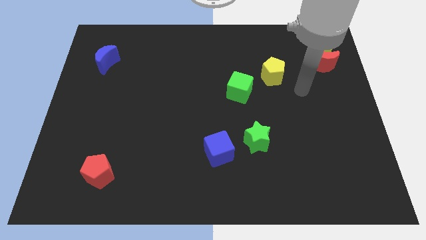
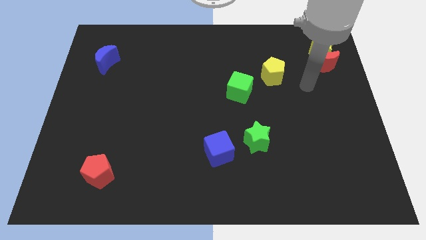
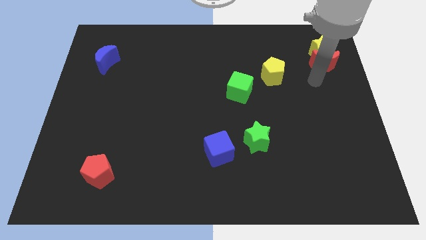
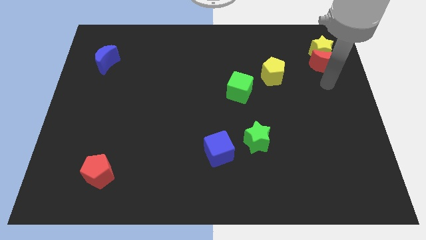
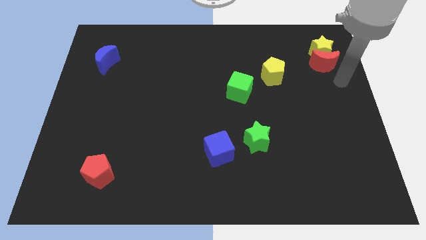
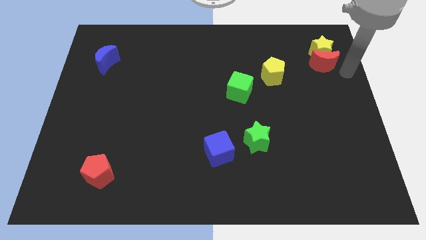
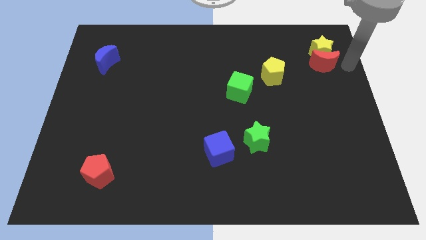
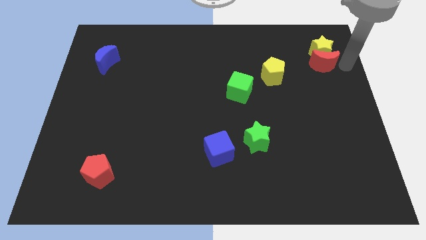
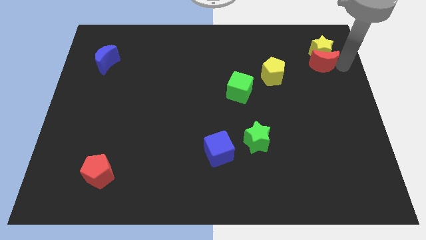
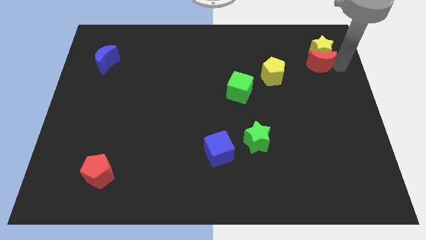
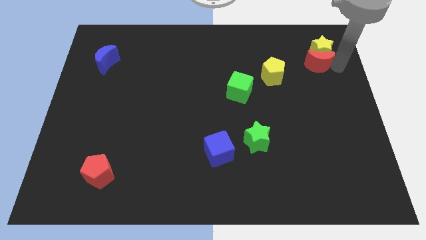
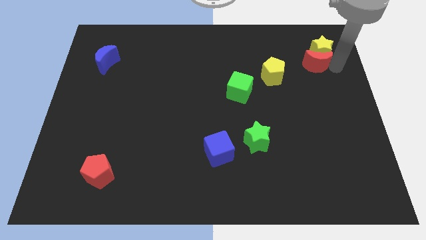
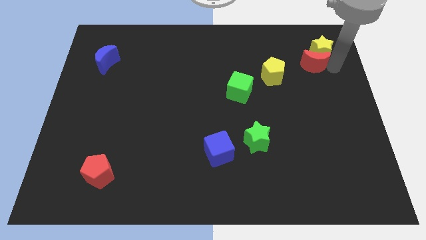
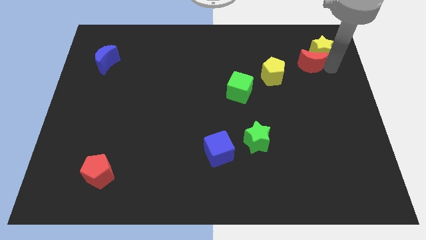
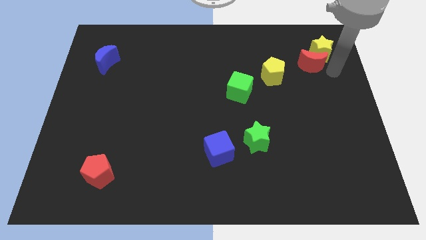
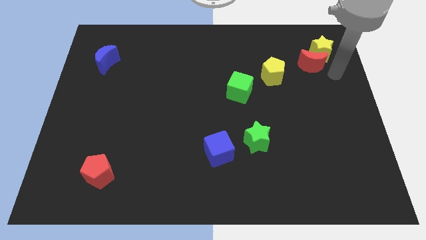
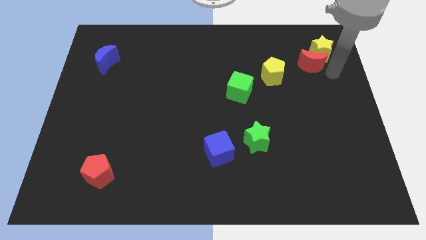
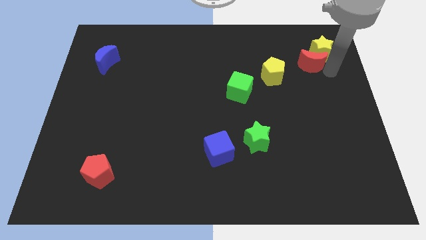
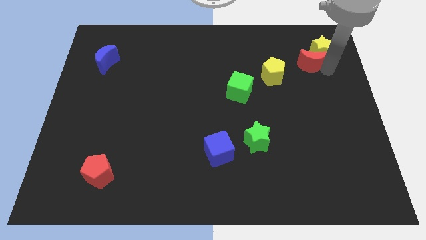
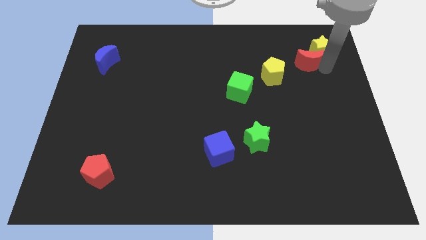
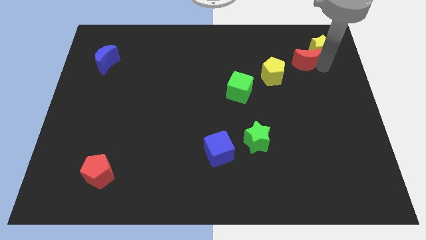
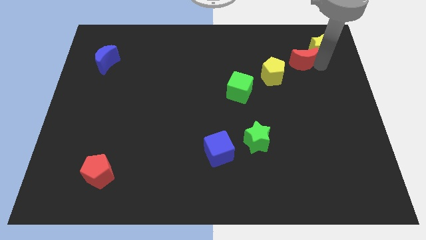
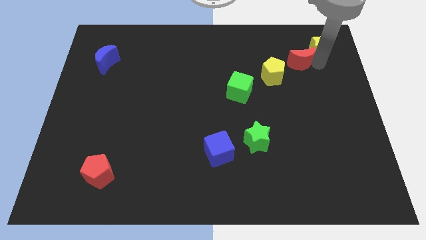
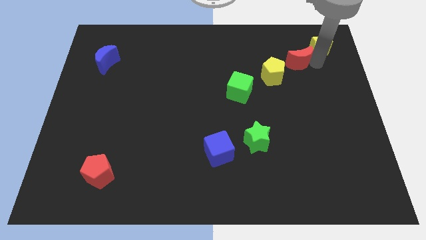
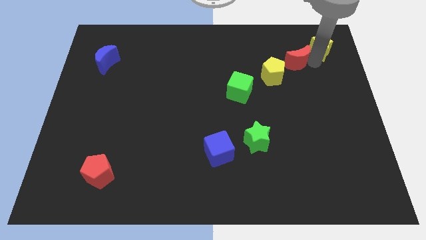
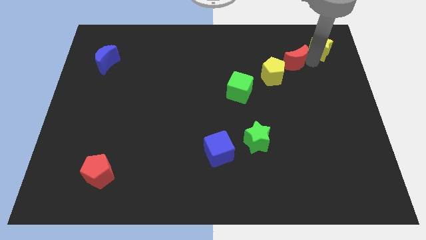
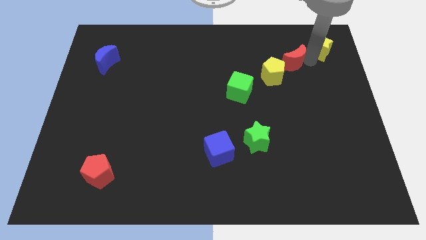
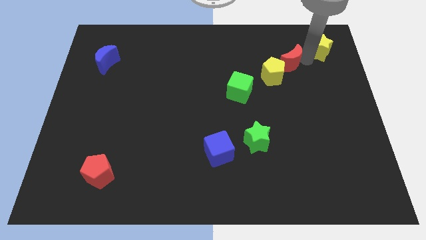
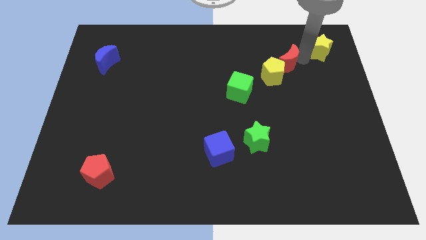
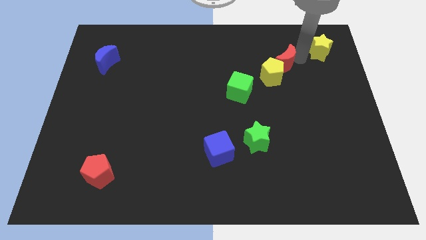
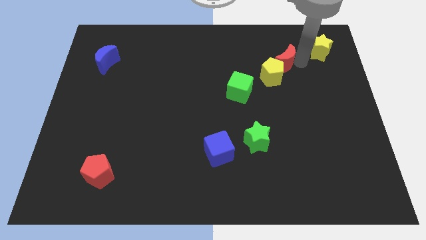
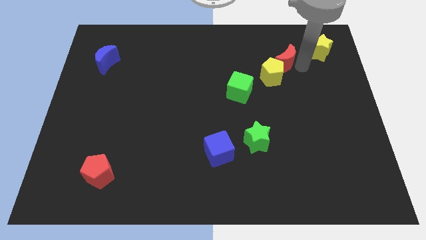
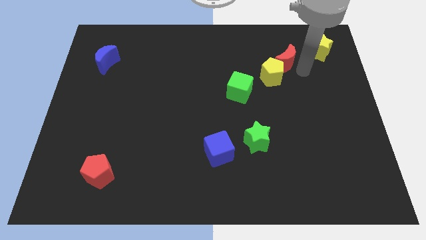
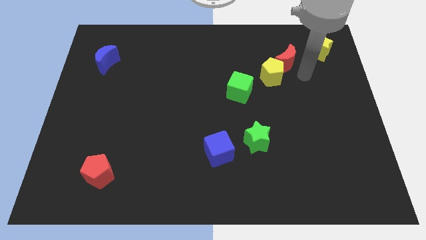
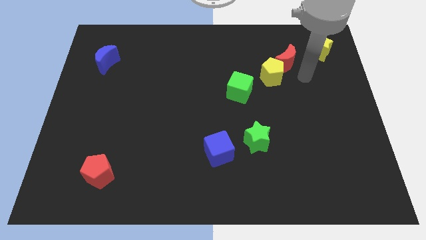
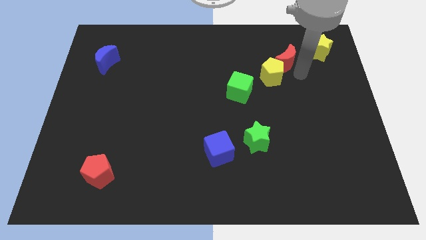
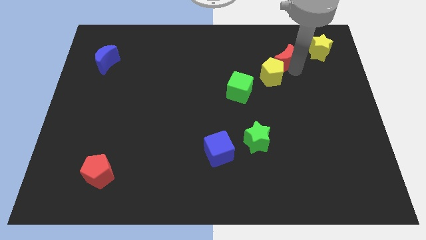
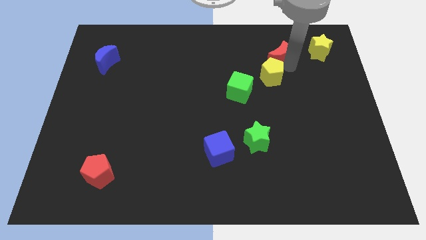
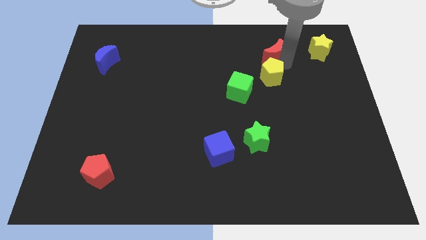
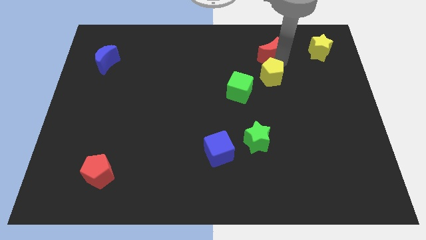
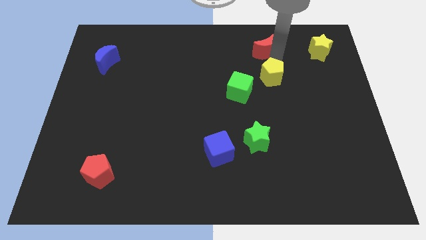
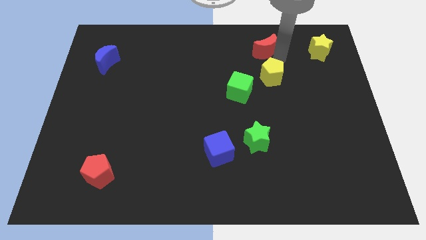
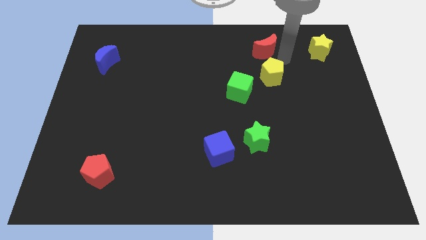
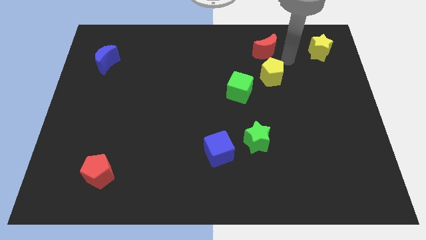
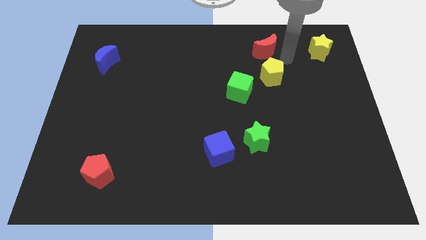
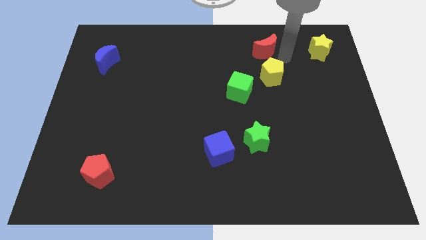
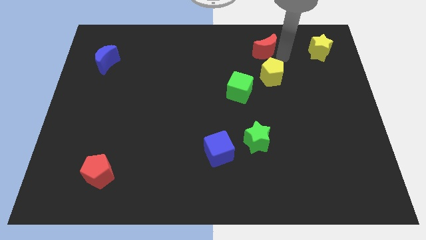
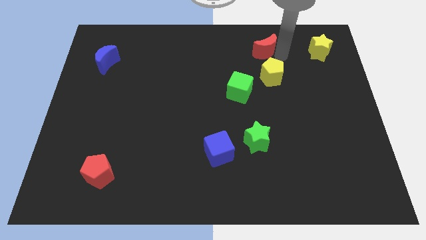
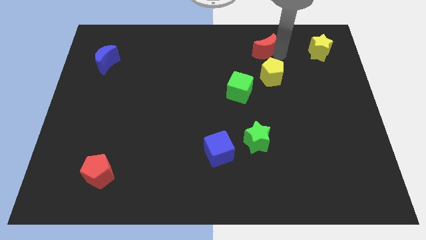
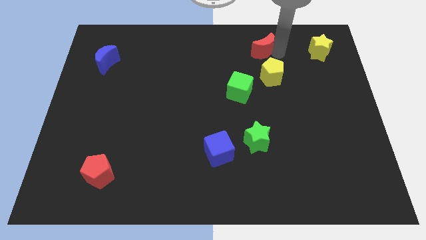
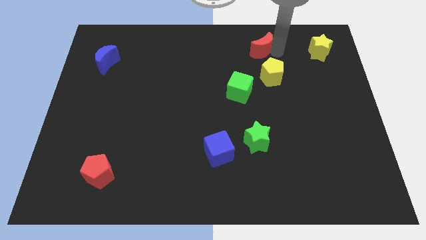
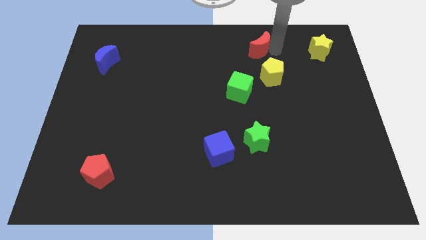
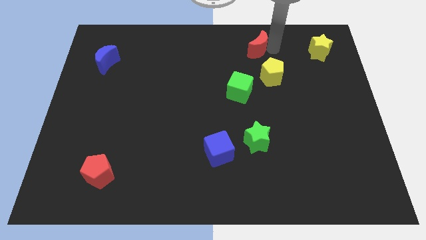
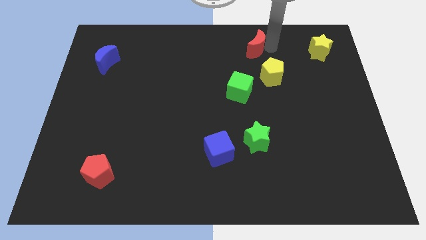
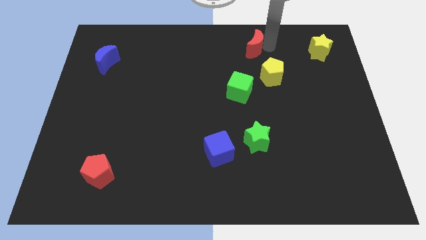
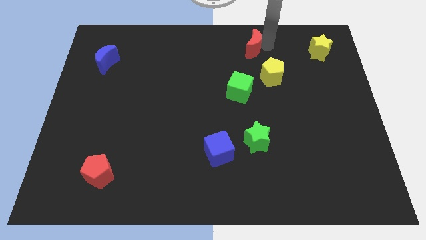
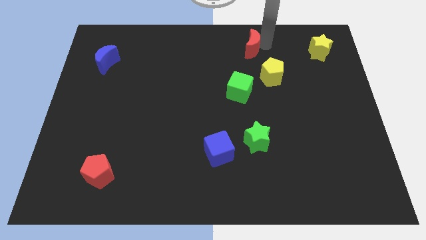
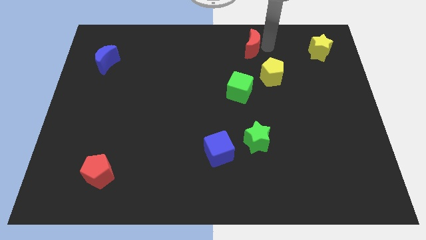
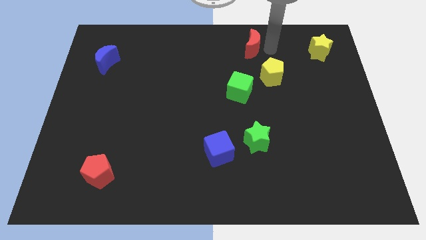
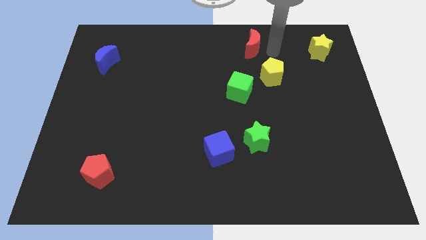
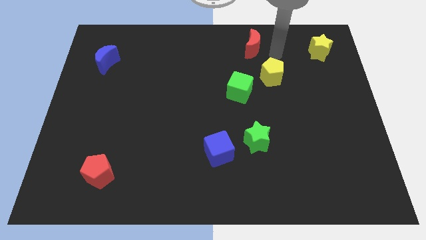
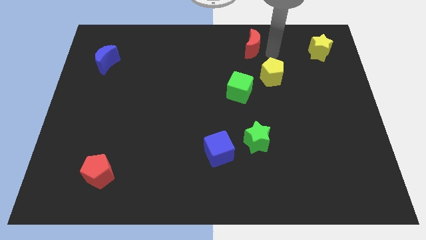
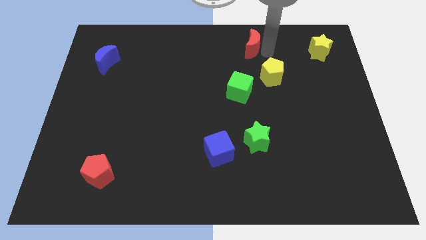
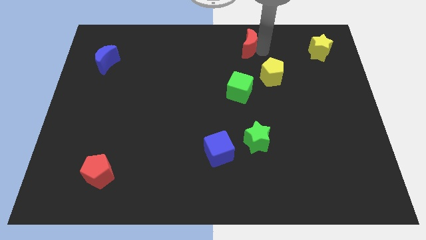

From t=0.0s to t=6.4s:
slide the red moon to the towards your base

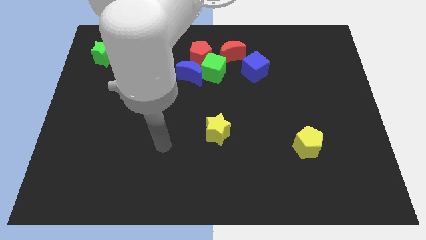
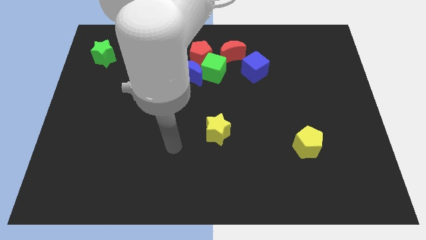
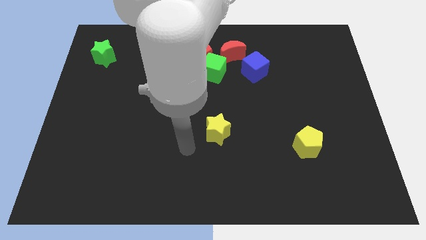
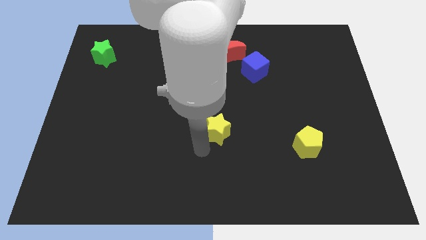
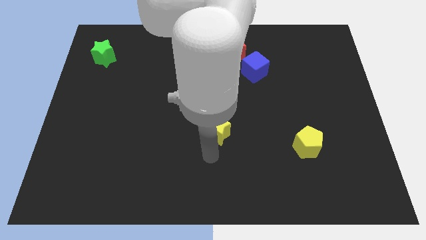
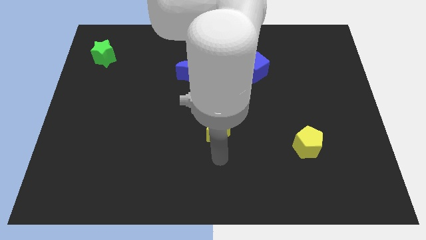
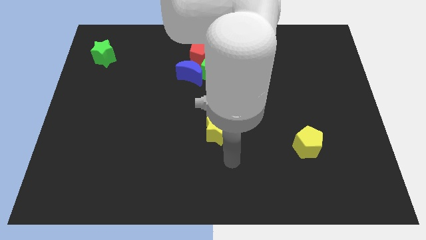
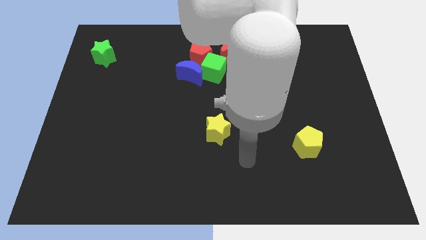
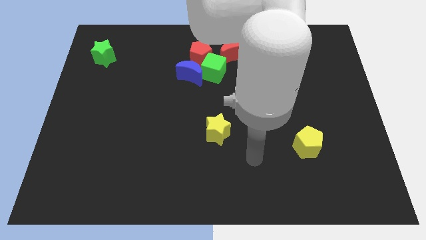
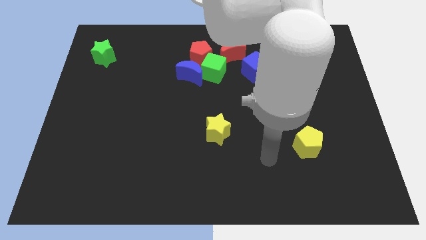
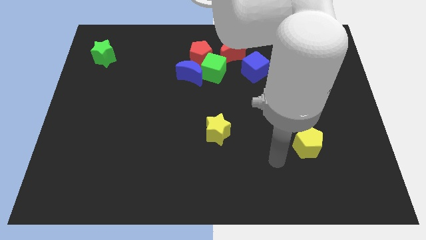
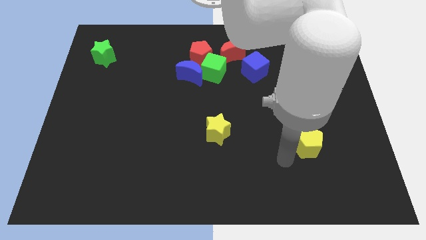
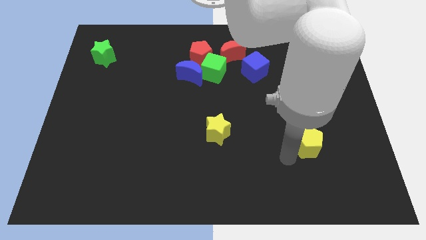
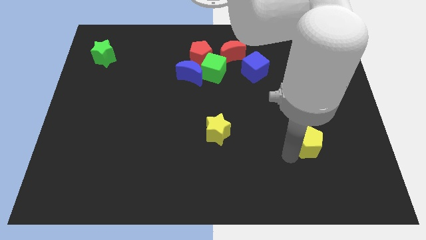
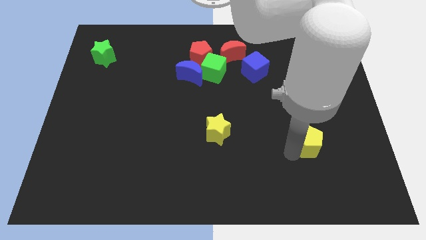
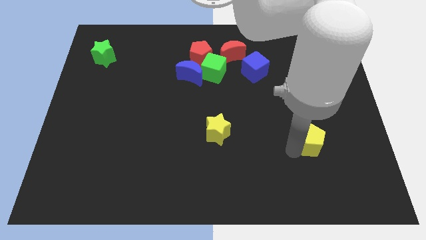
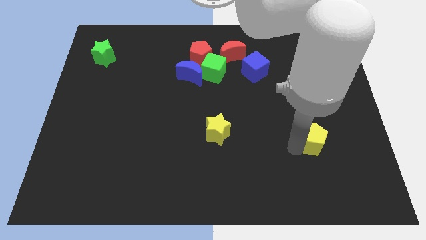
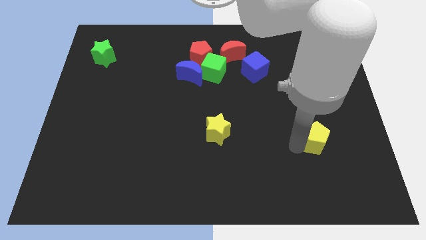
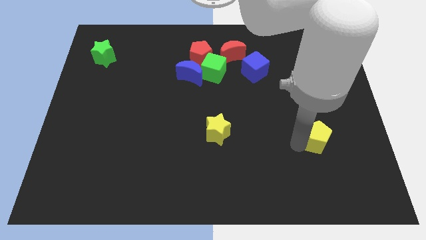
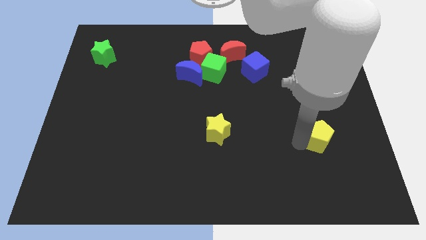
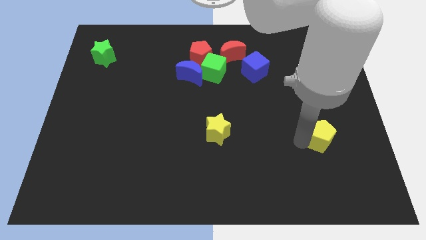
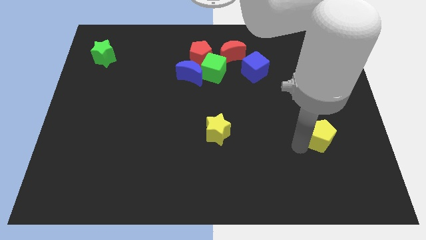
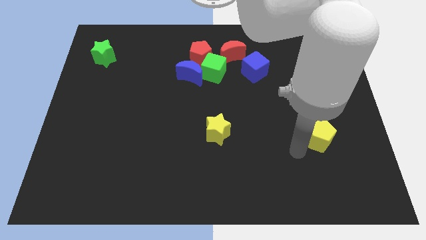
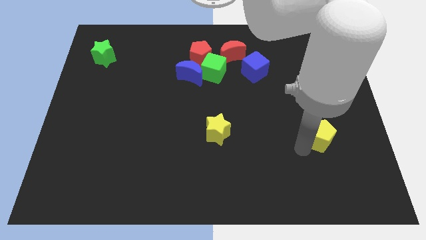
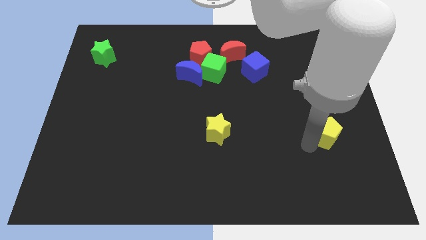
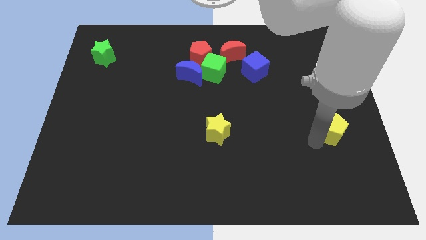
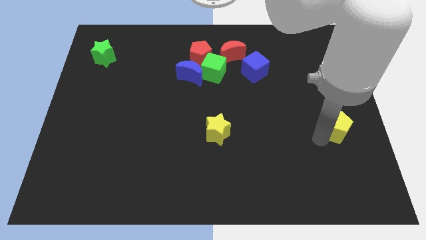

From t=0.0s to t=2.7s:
push the yellow pentagon to the right side
